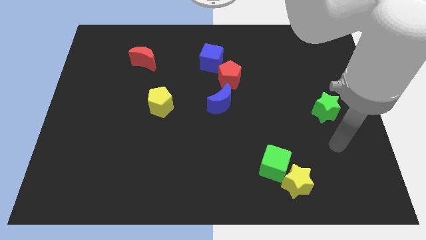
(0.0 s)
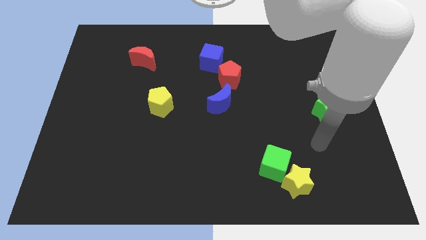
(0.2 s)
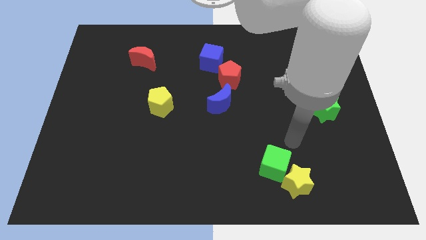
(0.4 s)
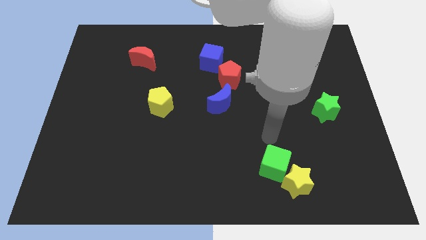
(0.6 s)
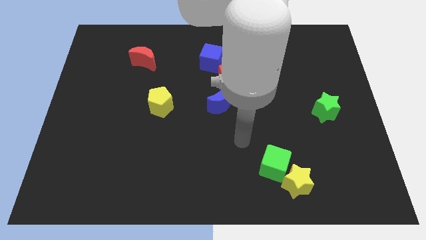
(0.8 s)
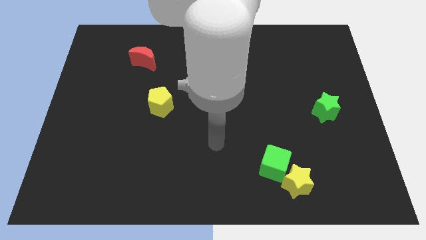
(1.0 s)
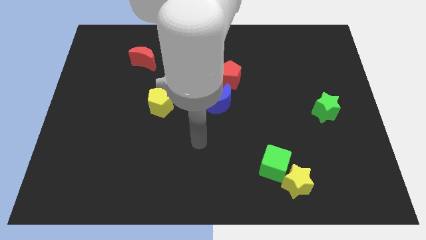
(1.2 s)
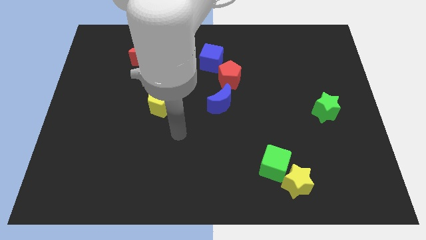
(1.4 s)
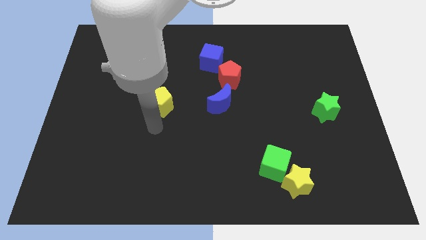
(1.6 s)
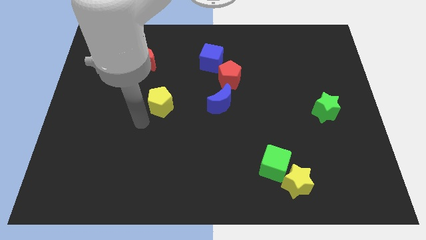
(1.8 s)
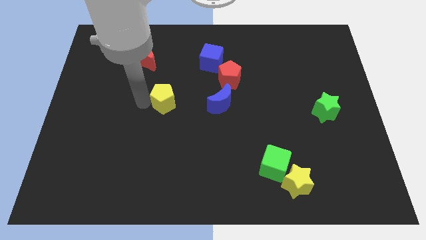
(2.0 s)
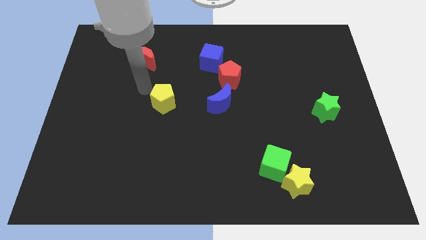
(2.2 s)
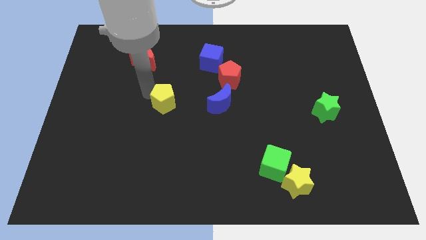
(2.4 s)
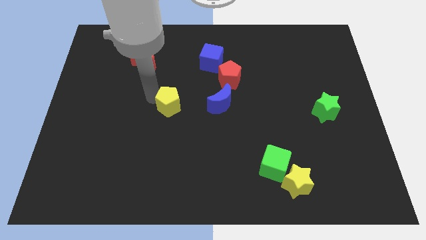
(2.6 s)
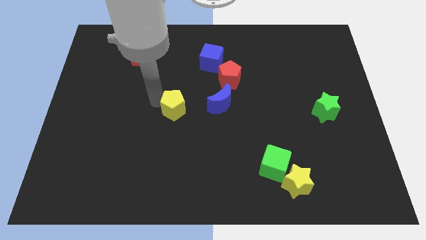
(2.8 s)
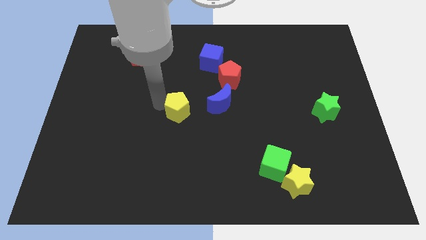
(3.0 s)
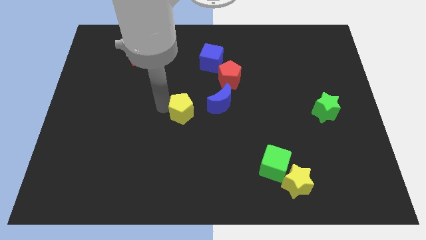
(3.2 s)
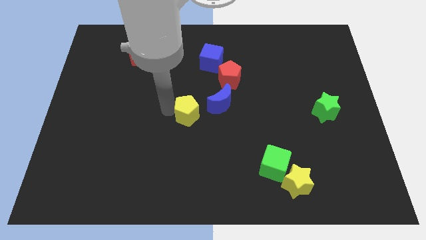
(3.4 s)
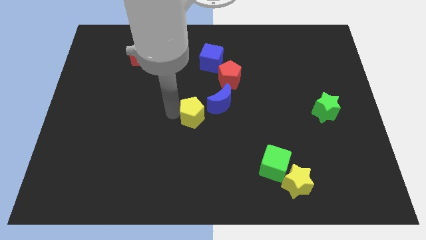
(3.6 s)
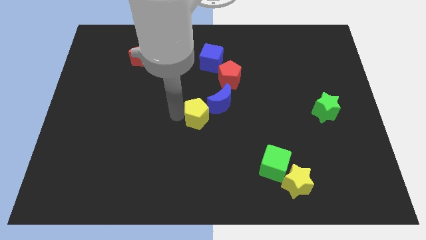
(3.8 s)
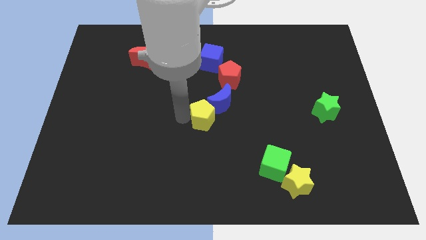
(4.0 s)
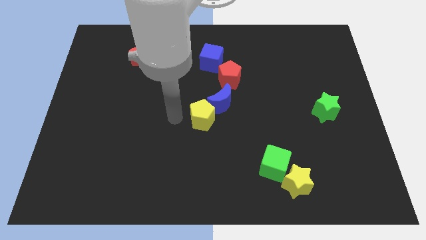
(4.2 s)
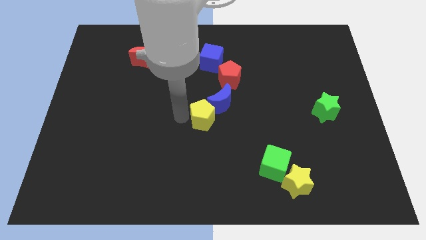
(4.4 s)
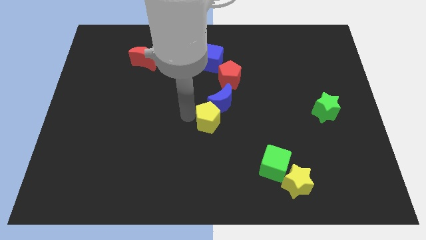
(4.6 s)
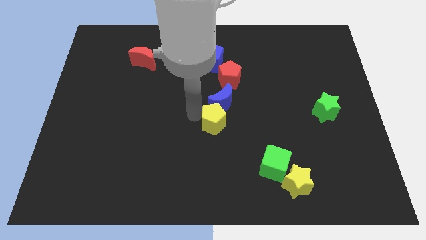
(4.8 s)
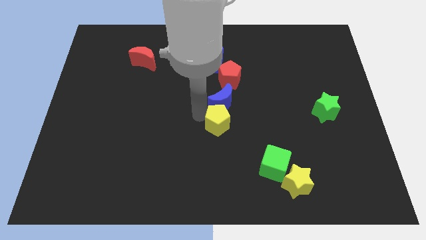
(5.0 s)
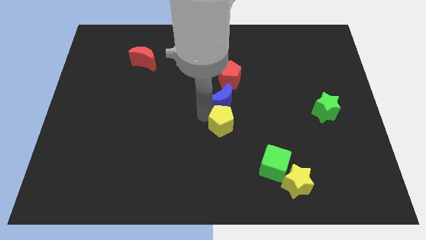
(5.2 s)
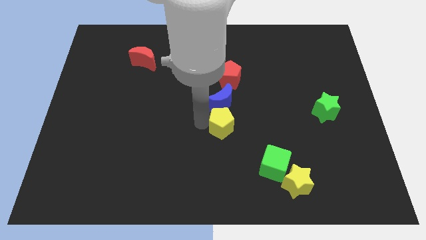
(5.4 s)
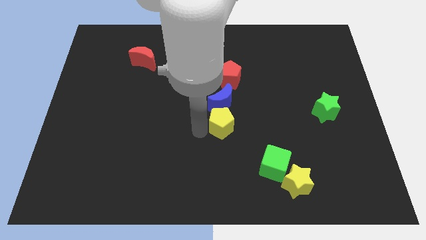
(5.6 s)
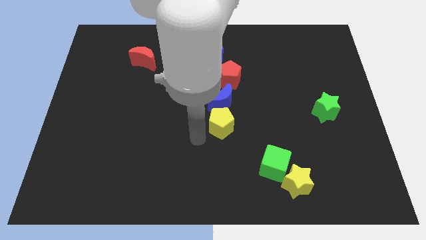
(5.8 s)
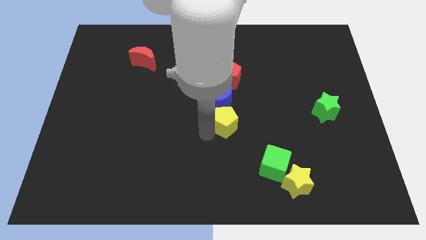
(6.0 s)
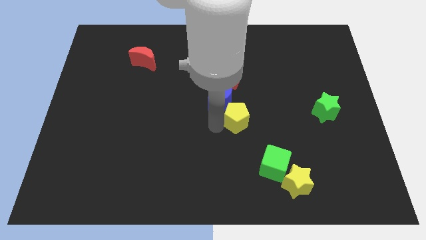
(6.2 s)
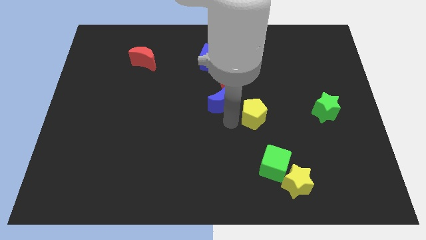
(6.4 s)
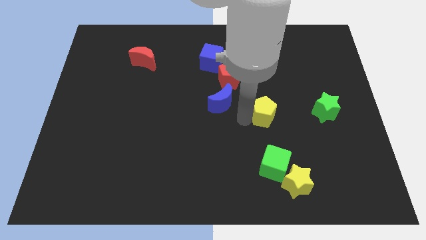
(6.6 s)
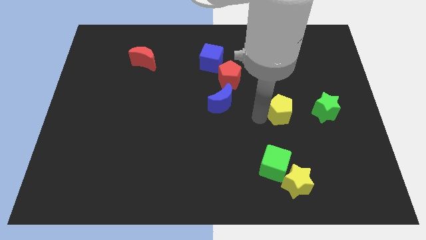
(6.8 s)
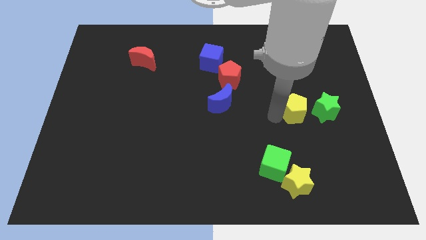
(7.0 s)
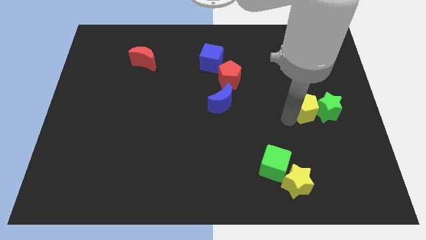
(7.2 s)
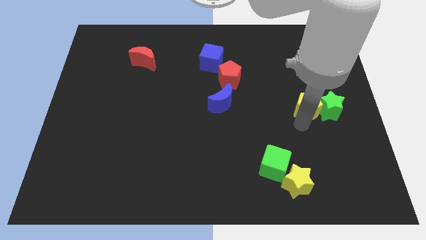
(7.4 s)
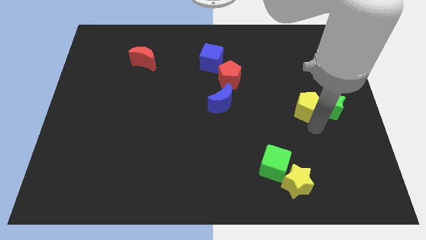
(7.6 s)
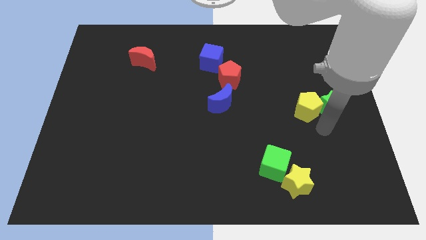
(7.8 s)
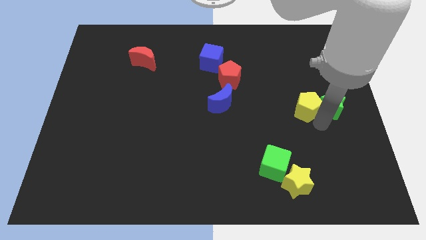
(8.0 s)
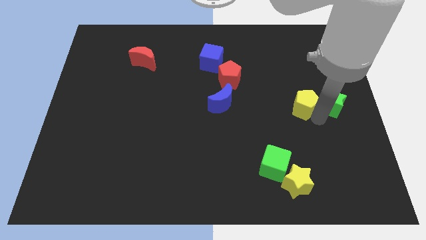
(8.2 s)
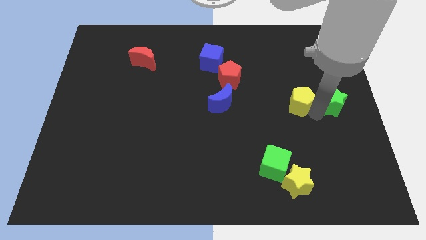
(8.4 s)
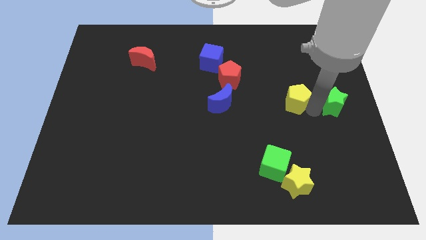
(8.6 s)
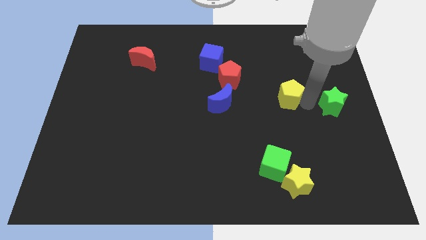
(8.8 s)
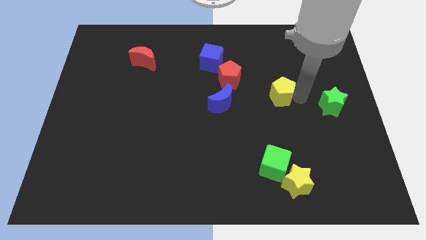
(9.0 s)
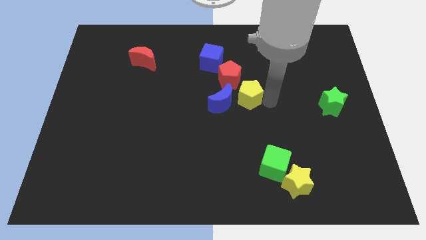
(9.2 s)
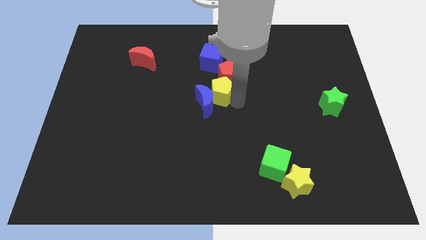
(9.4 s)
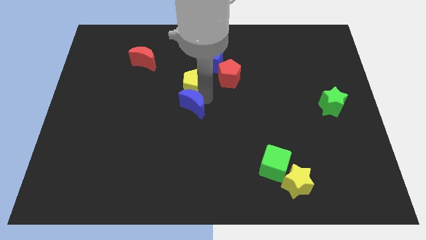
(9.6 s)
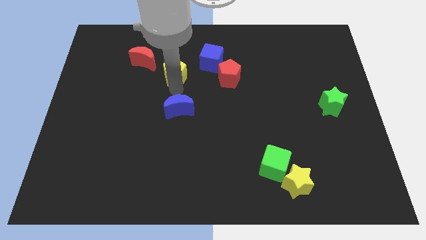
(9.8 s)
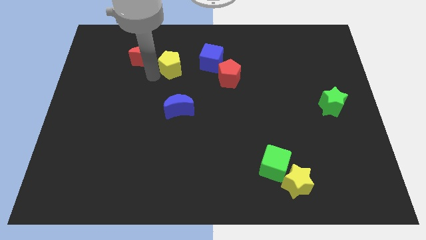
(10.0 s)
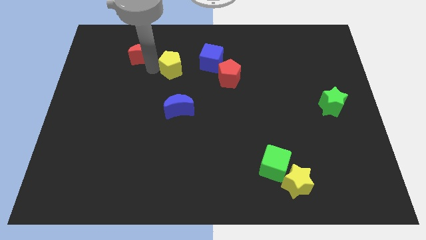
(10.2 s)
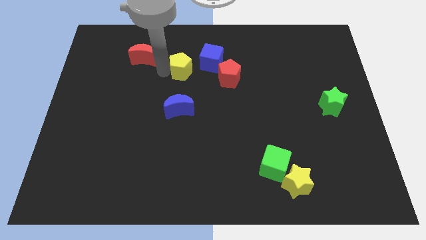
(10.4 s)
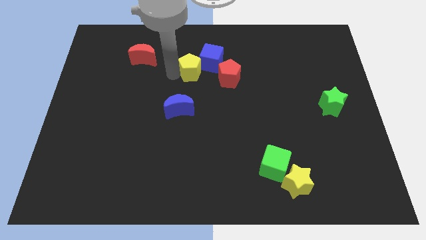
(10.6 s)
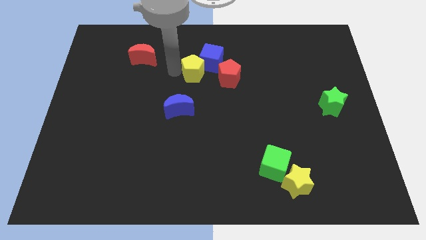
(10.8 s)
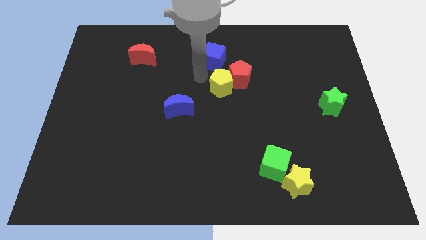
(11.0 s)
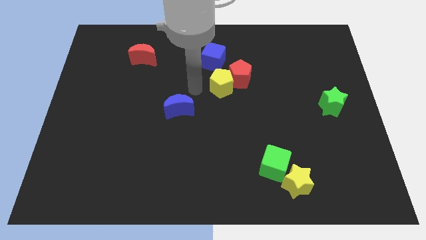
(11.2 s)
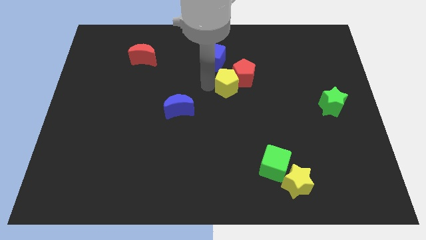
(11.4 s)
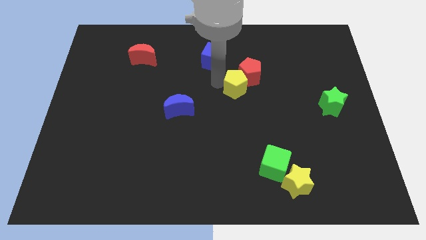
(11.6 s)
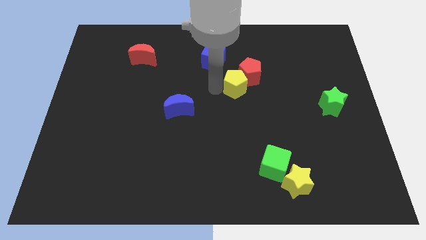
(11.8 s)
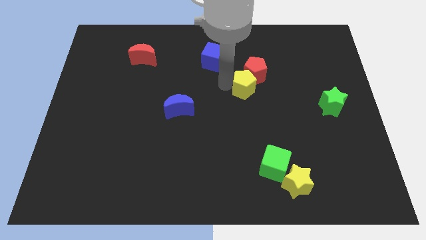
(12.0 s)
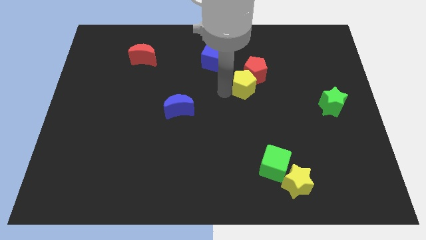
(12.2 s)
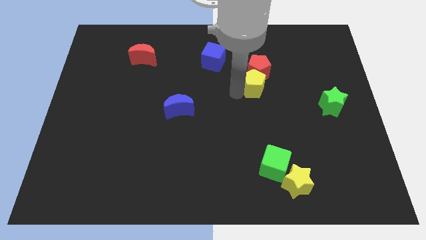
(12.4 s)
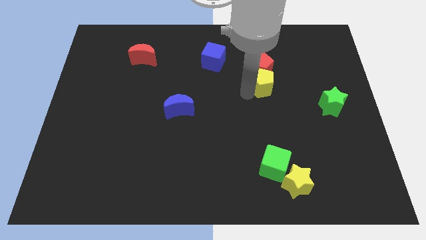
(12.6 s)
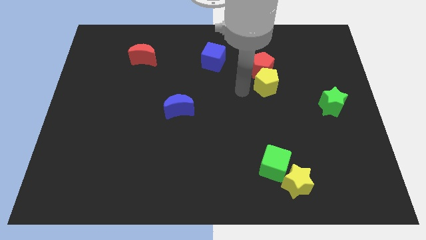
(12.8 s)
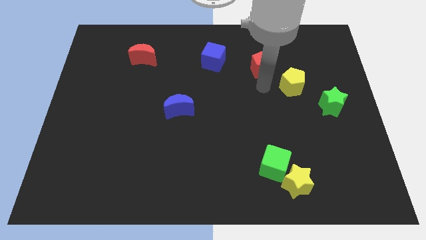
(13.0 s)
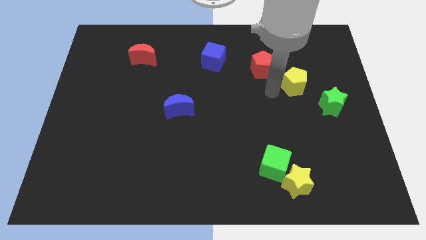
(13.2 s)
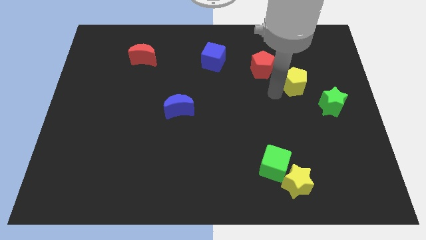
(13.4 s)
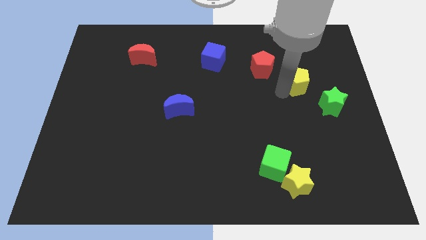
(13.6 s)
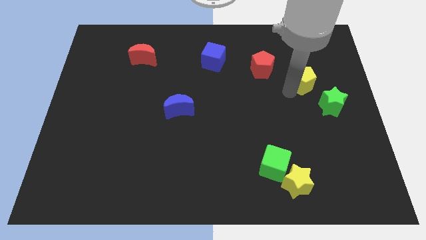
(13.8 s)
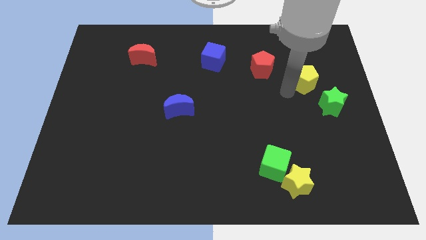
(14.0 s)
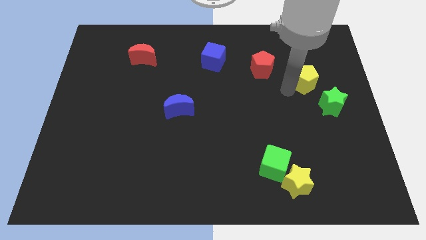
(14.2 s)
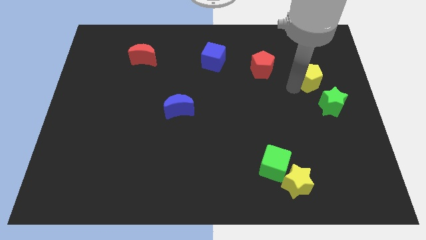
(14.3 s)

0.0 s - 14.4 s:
move the yellow pentagon to the top of the green star

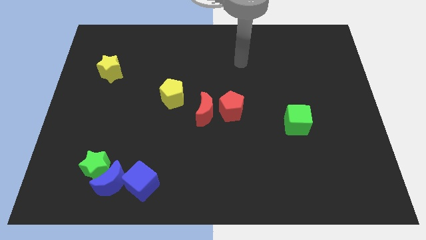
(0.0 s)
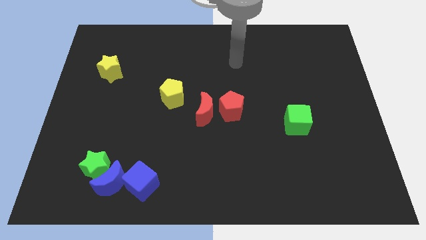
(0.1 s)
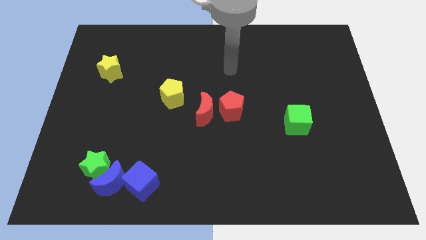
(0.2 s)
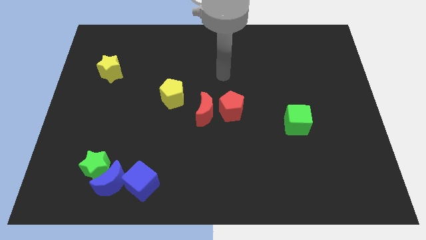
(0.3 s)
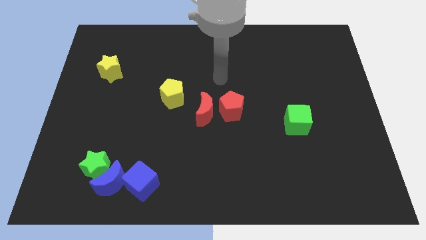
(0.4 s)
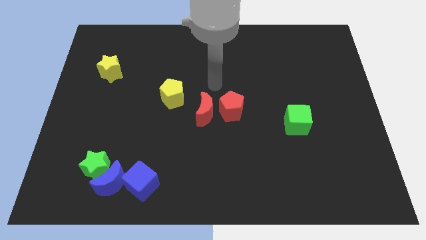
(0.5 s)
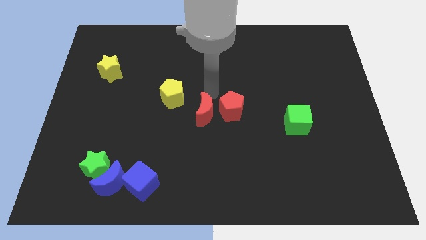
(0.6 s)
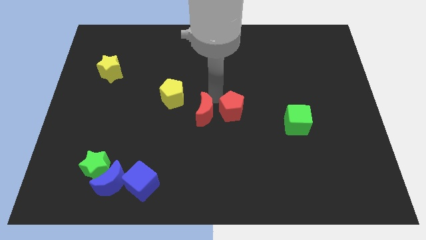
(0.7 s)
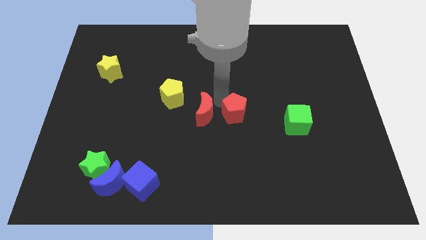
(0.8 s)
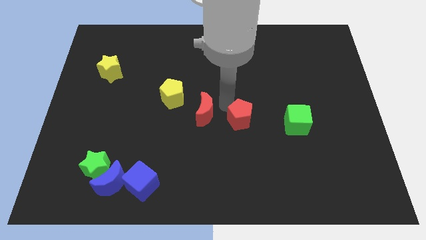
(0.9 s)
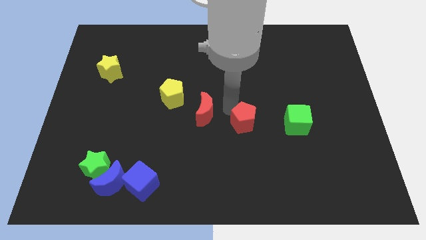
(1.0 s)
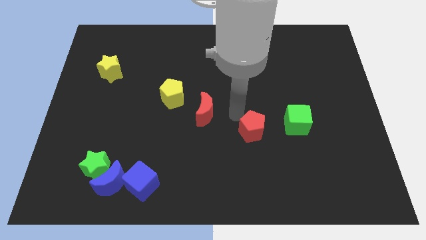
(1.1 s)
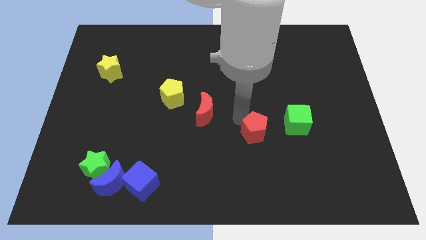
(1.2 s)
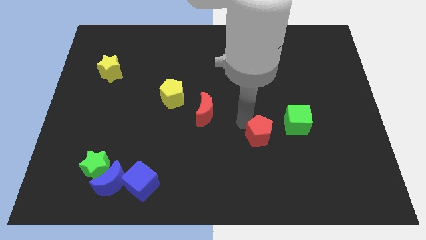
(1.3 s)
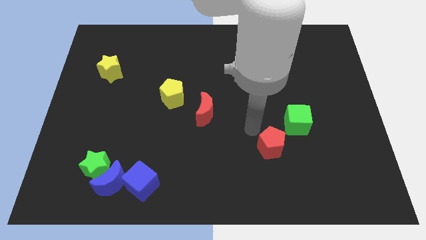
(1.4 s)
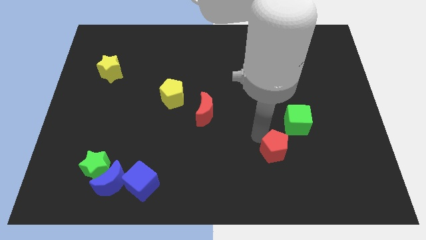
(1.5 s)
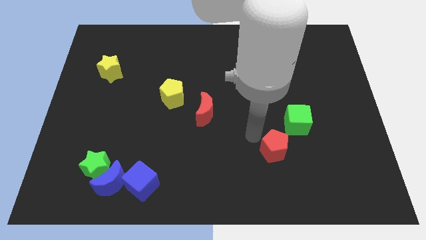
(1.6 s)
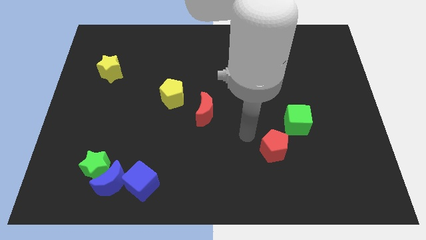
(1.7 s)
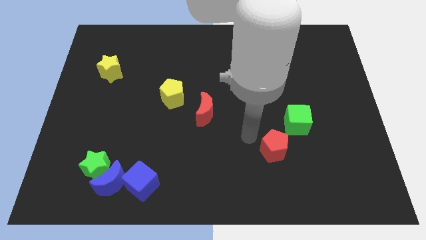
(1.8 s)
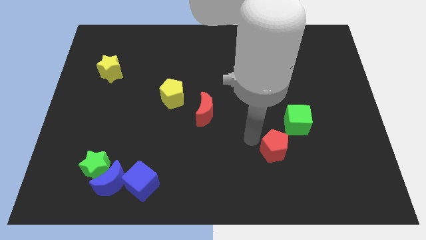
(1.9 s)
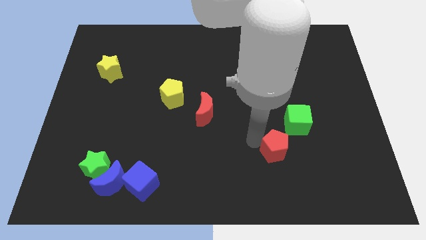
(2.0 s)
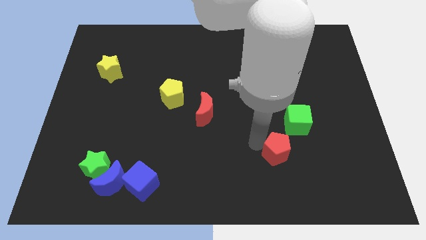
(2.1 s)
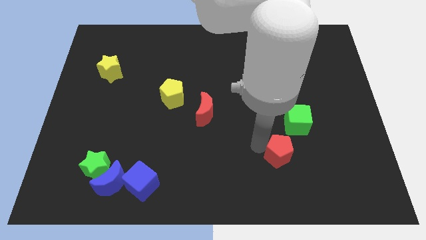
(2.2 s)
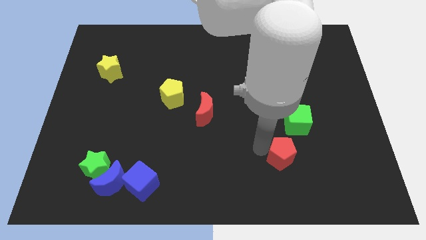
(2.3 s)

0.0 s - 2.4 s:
slide the red pentagon to the bottom side of the green cube
